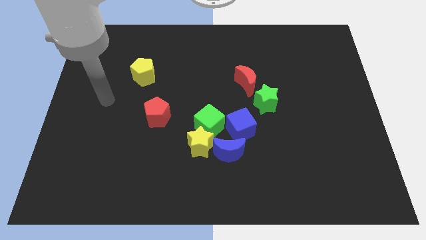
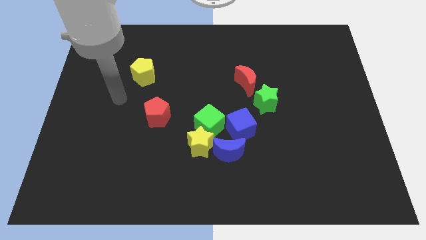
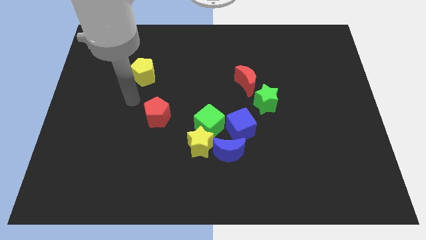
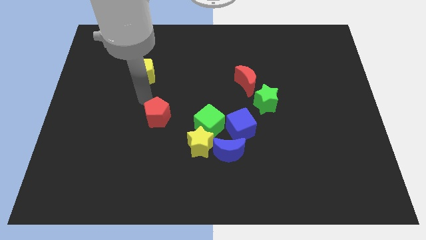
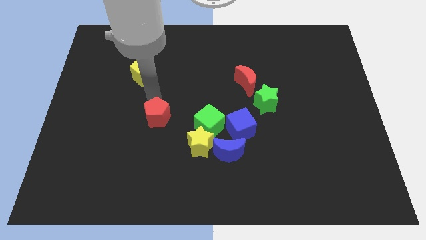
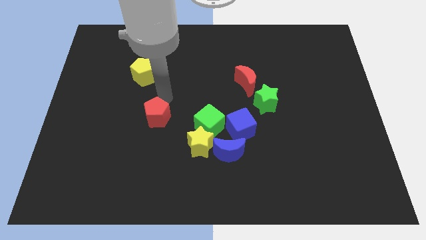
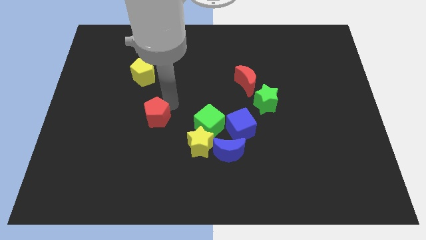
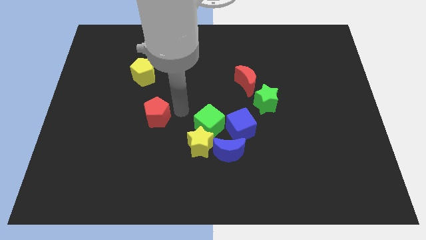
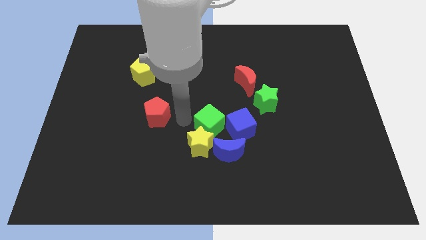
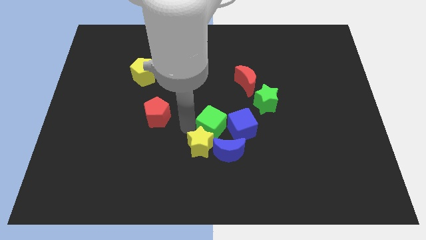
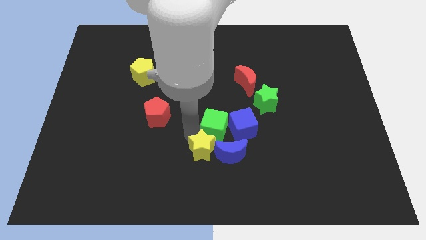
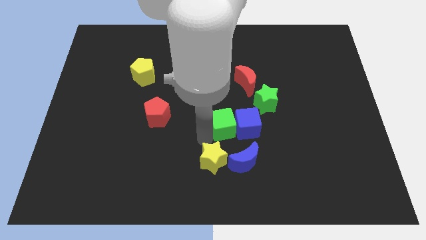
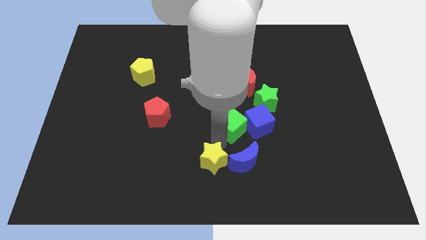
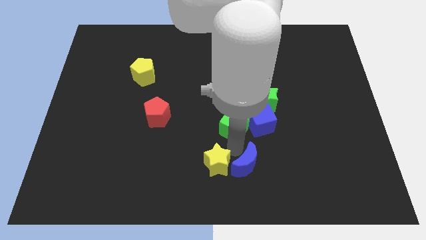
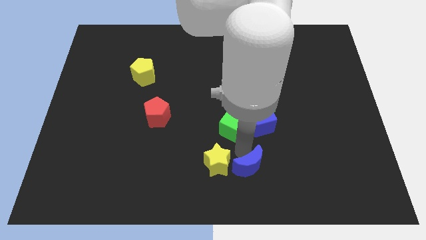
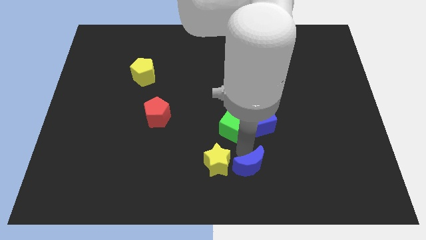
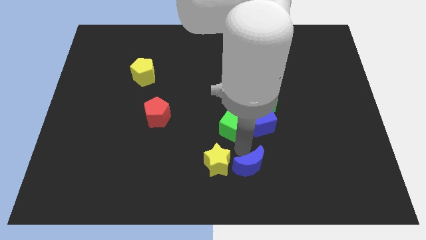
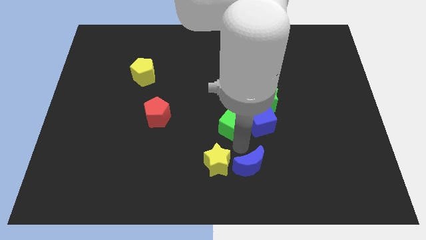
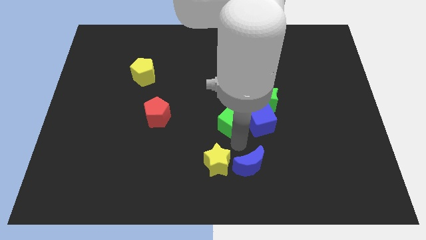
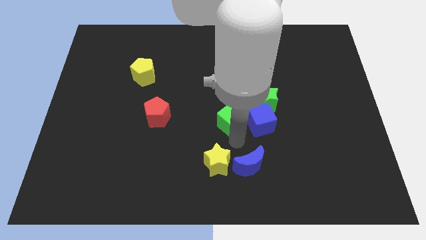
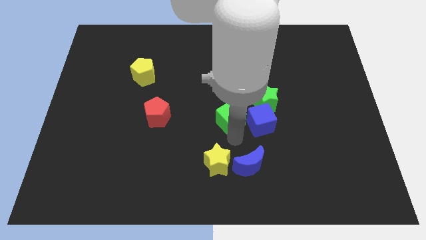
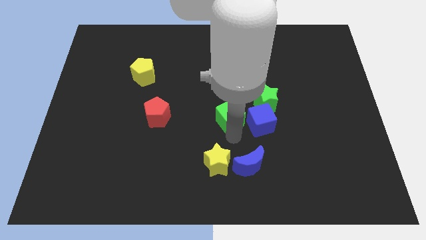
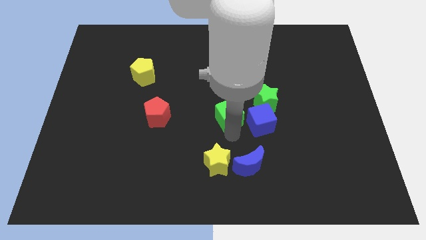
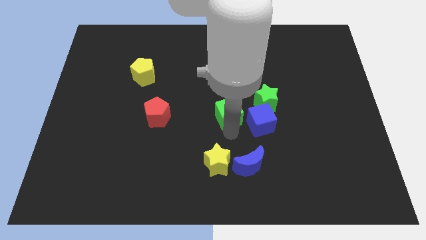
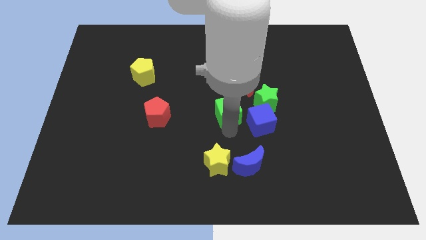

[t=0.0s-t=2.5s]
pull the green cube apart from the yellow star, blue cube, and blue moon

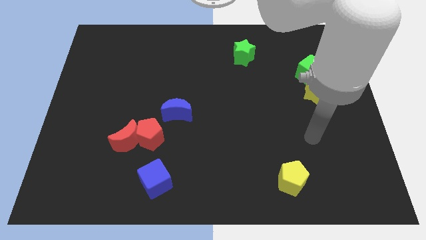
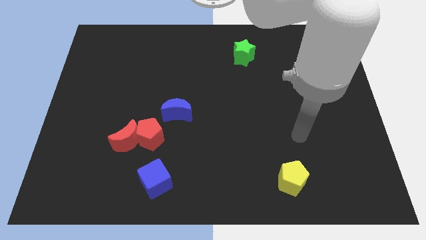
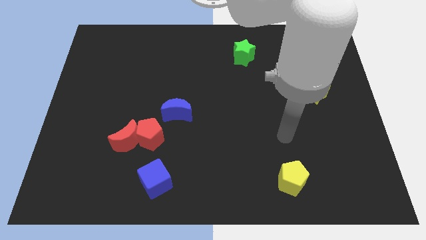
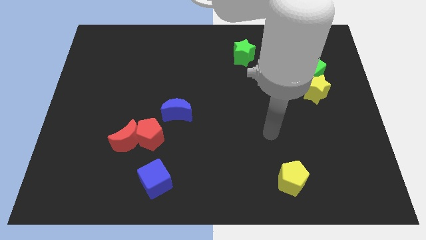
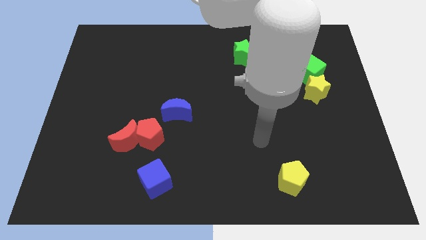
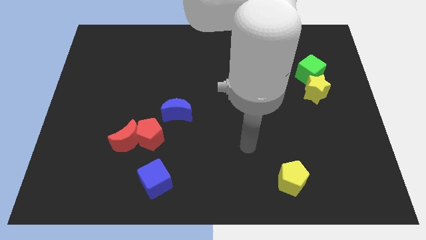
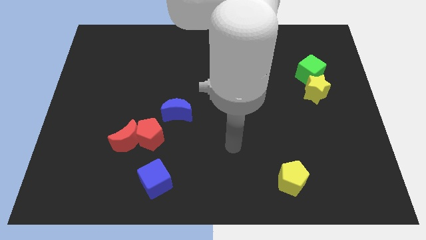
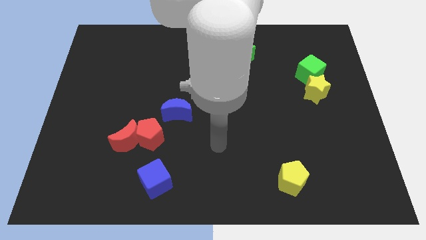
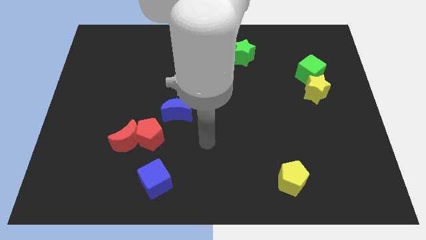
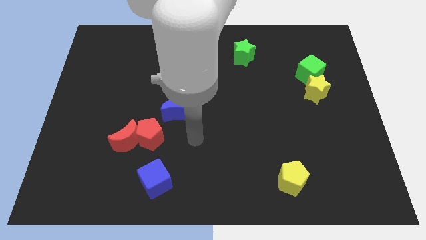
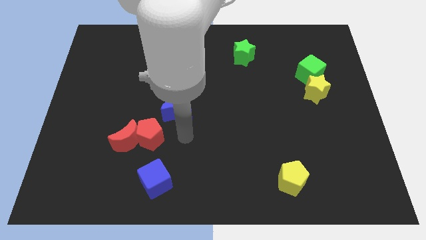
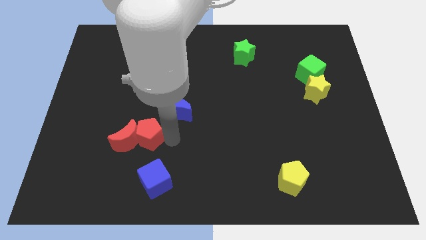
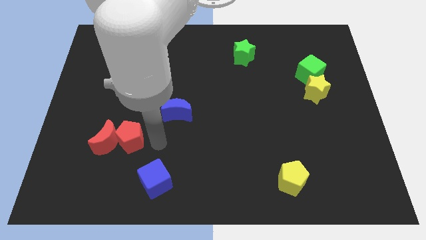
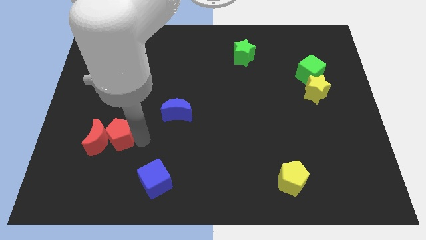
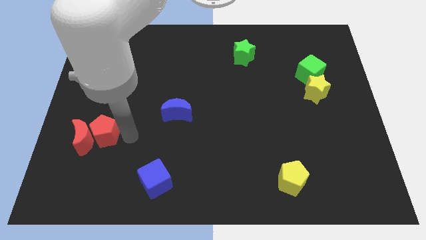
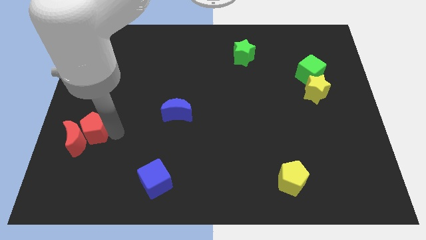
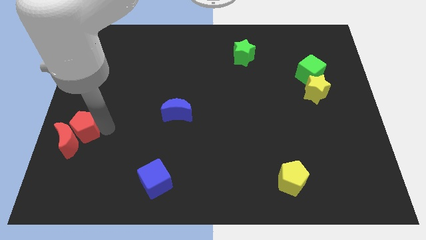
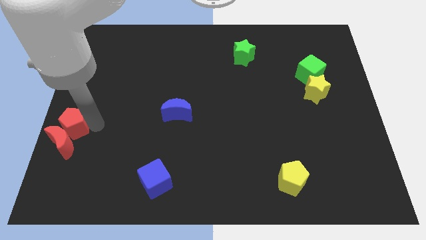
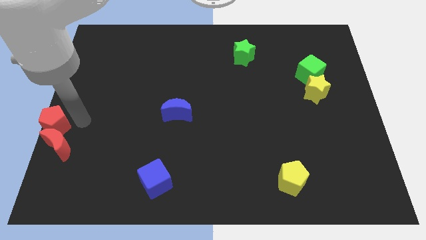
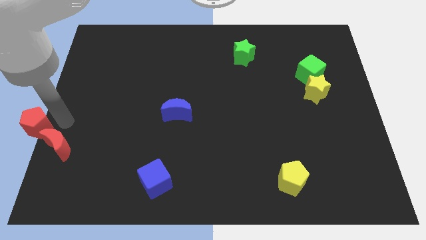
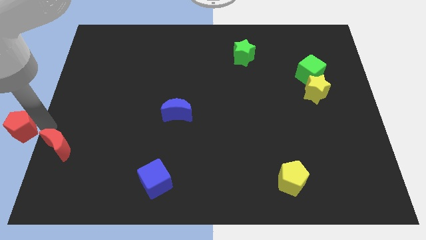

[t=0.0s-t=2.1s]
move the red moon away from the red pentagon

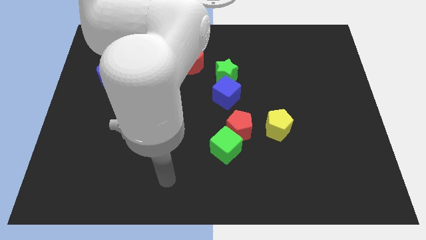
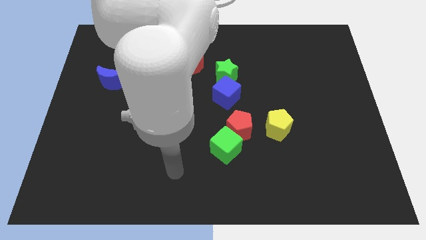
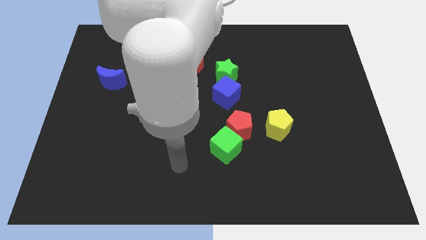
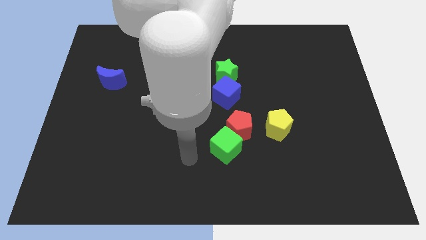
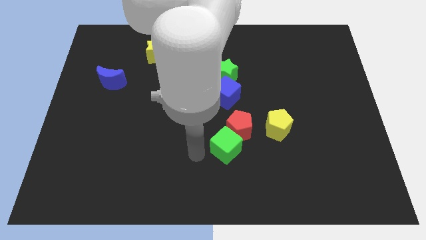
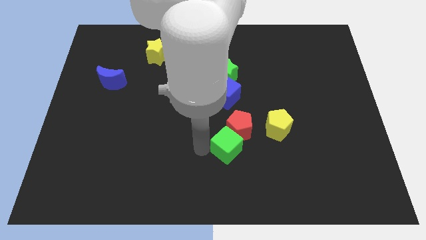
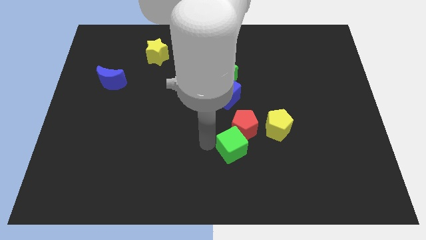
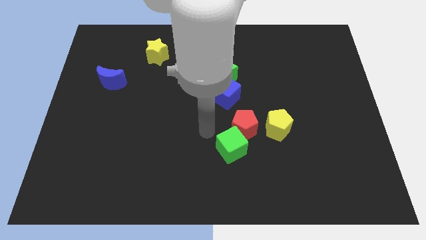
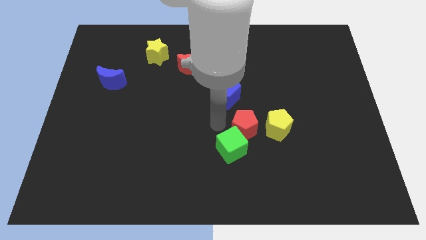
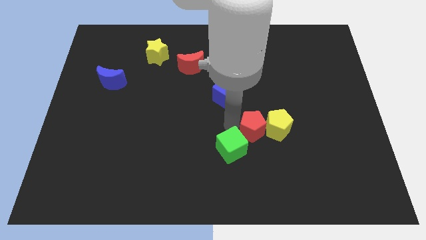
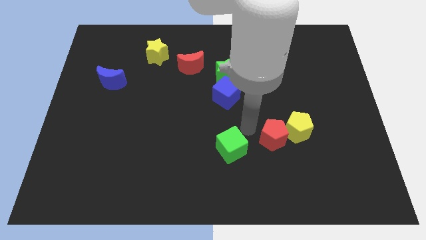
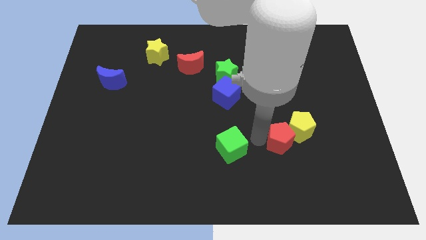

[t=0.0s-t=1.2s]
pull the green cube apart from the red pentagon

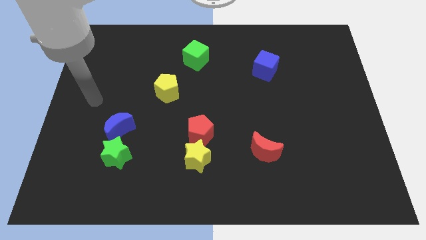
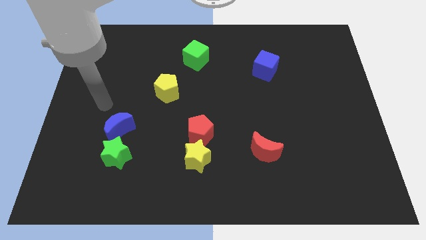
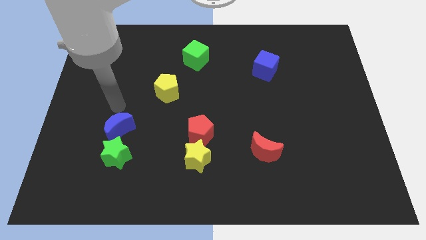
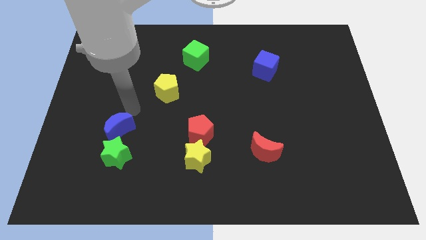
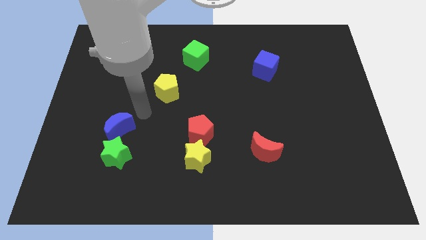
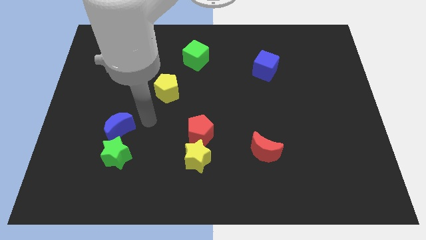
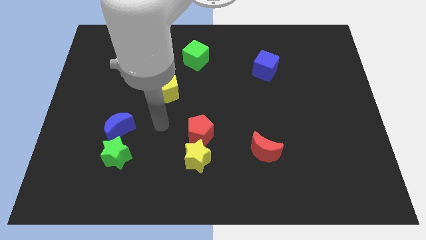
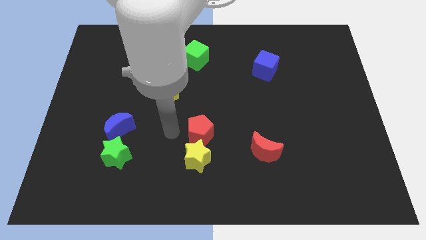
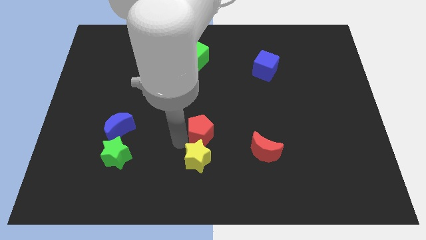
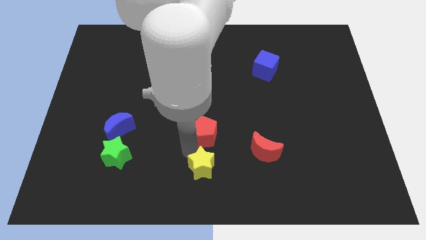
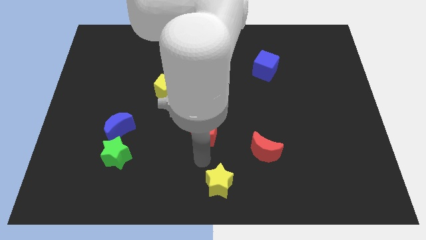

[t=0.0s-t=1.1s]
pull the red pentagon apart from the yellow star

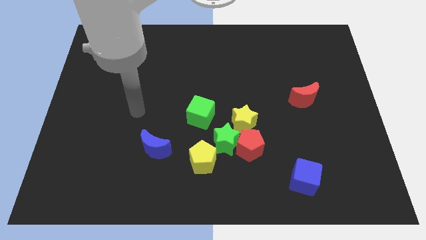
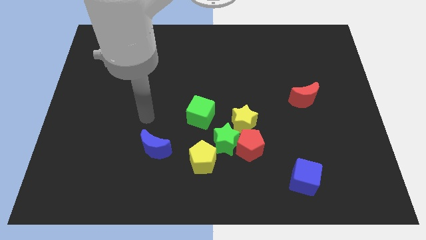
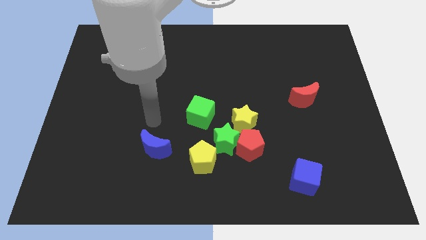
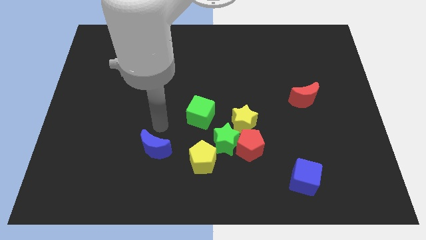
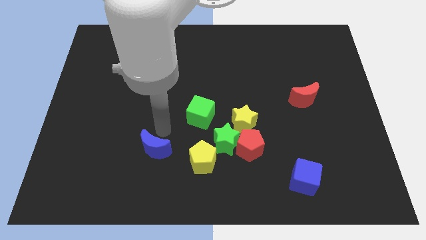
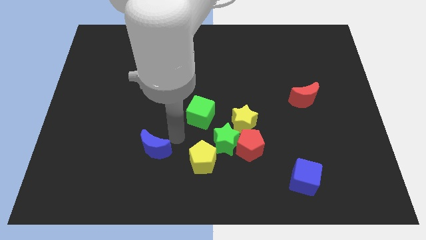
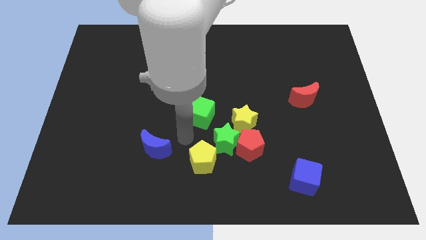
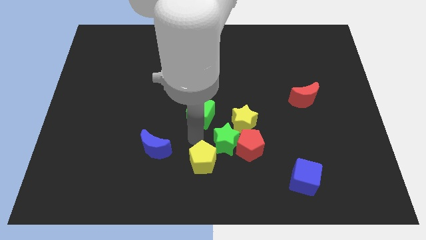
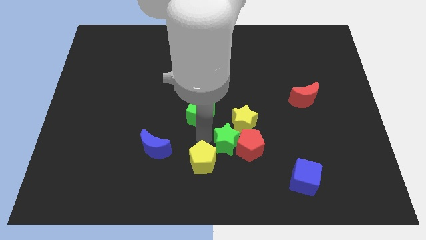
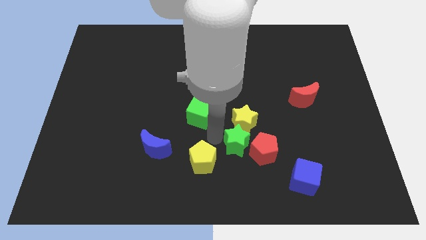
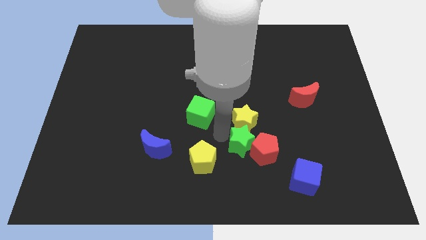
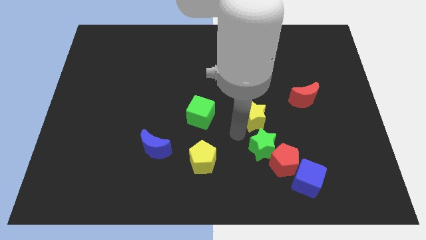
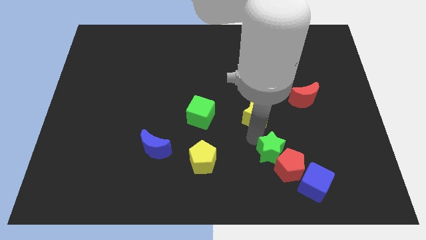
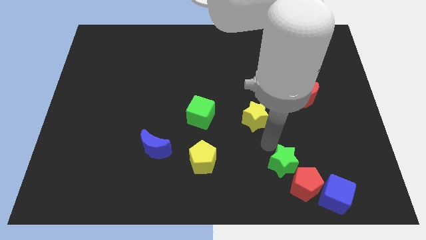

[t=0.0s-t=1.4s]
separate the red pentagon from the green star and yellow star

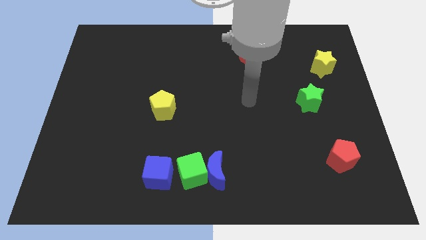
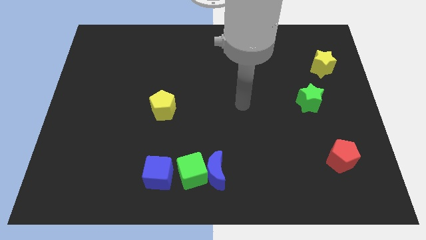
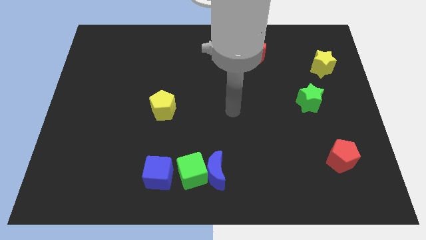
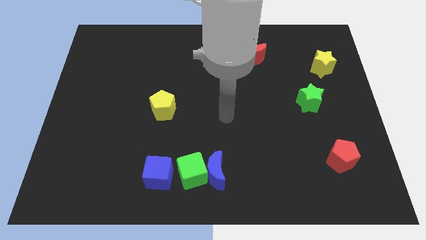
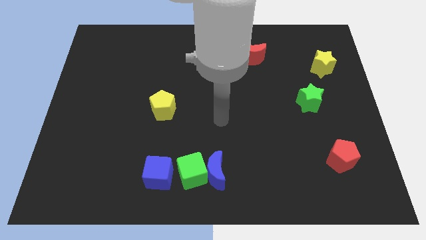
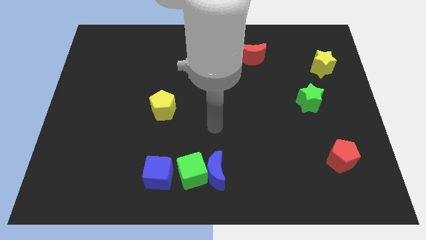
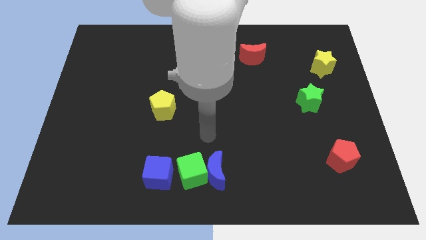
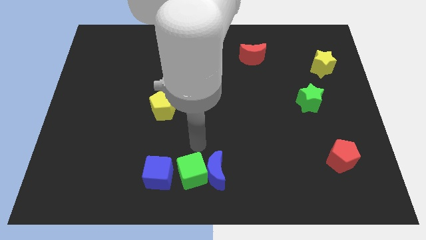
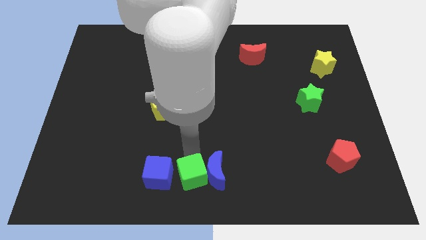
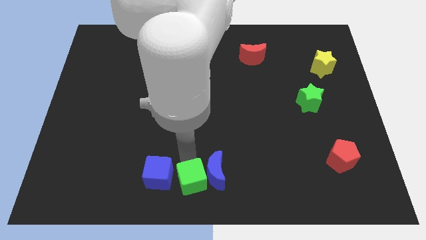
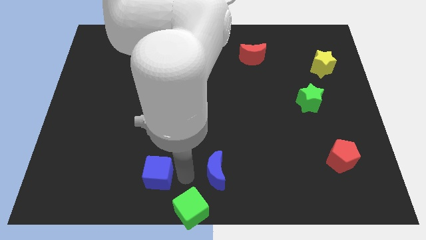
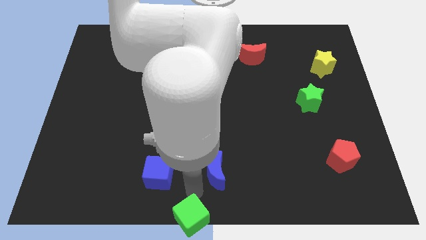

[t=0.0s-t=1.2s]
move the blue moon away from the green cube
